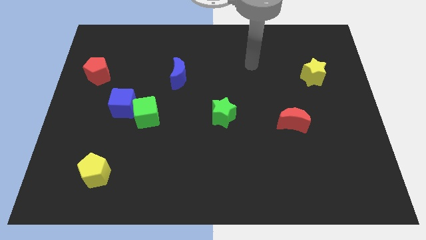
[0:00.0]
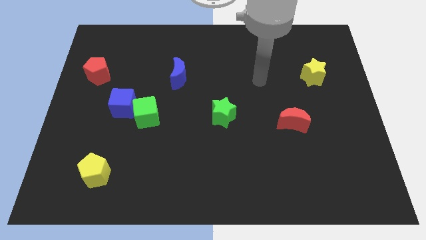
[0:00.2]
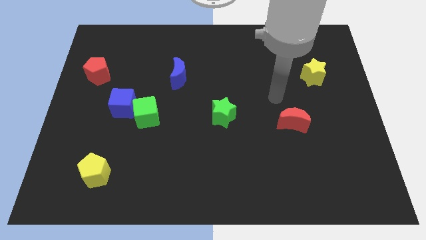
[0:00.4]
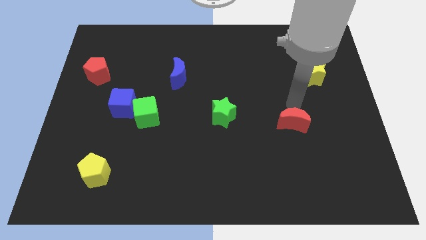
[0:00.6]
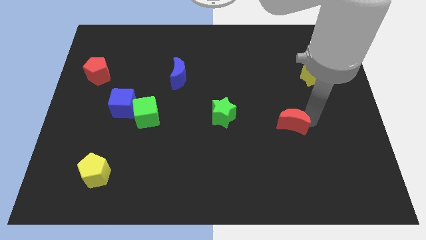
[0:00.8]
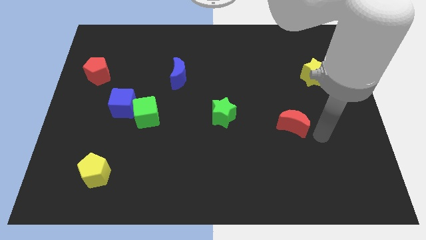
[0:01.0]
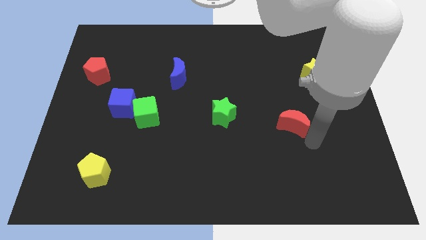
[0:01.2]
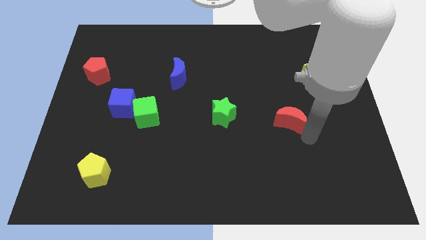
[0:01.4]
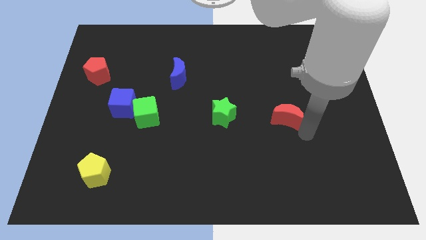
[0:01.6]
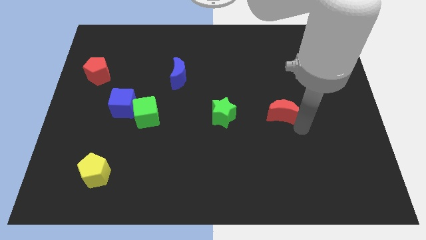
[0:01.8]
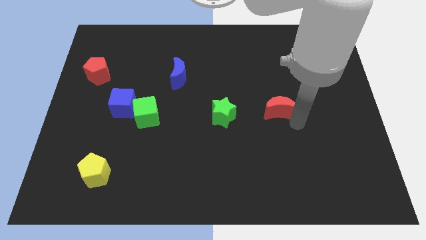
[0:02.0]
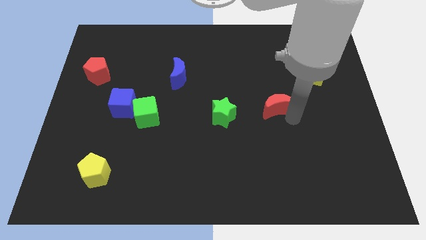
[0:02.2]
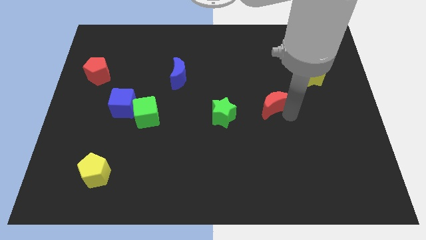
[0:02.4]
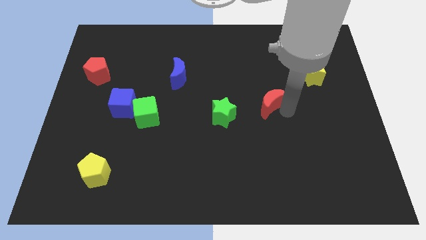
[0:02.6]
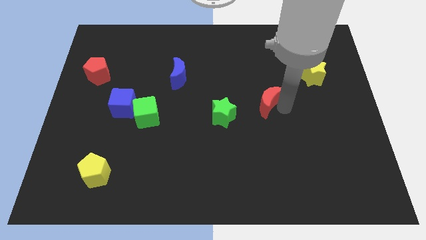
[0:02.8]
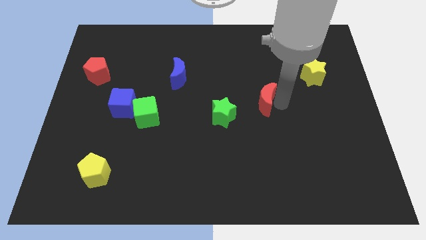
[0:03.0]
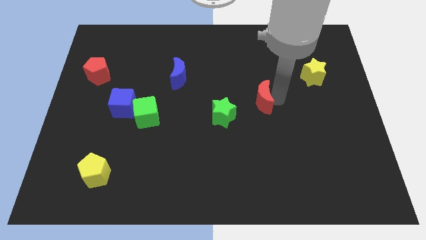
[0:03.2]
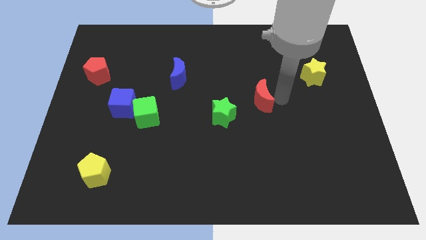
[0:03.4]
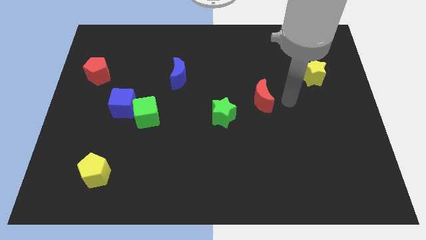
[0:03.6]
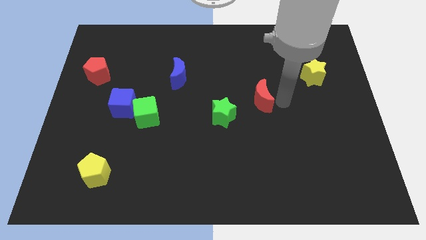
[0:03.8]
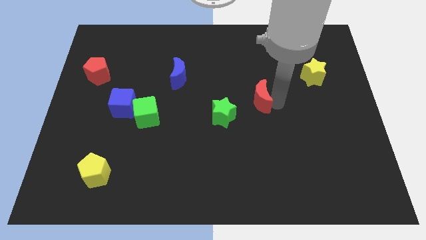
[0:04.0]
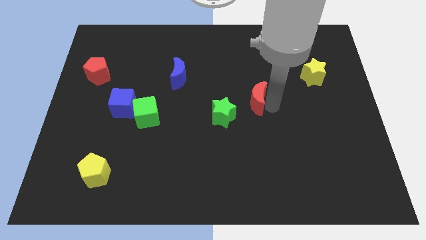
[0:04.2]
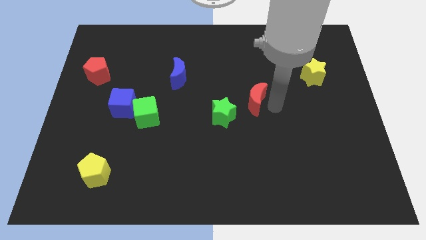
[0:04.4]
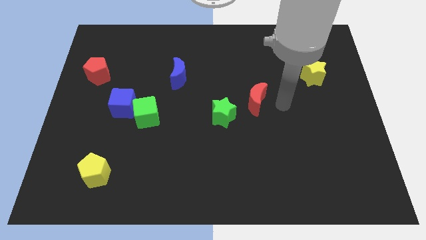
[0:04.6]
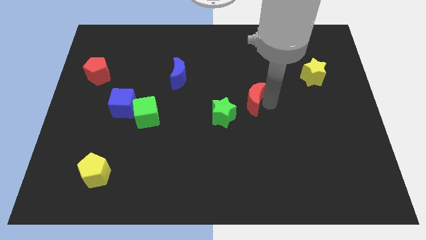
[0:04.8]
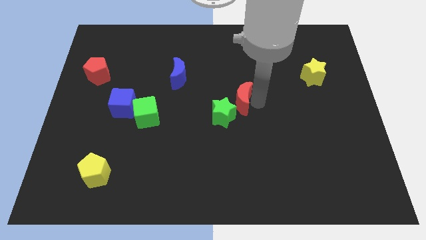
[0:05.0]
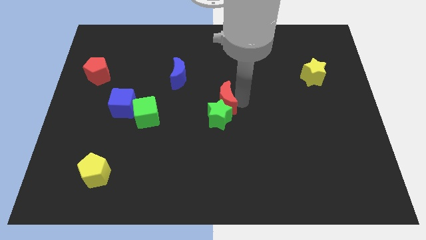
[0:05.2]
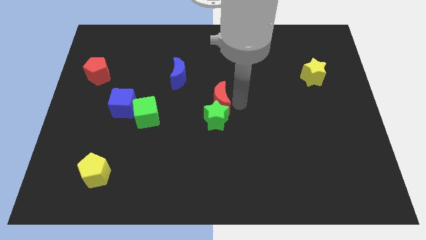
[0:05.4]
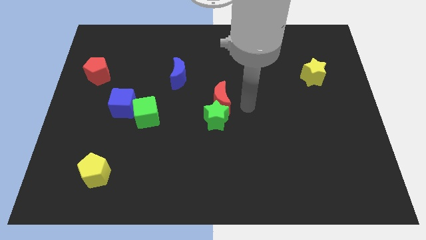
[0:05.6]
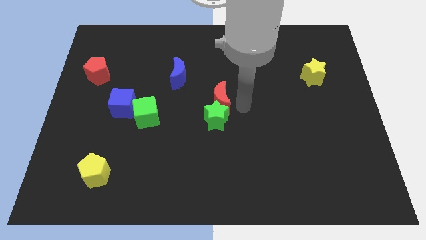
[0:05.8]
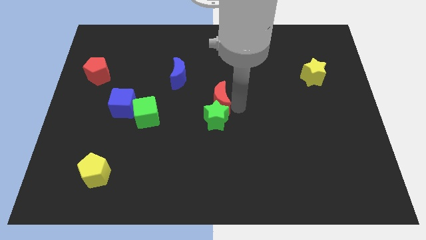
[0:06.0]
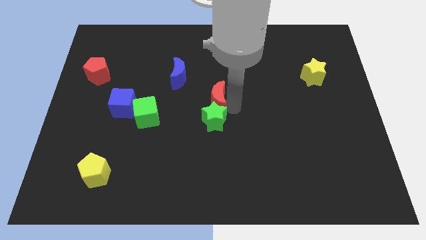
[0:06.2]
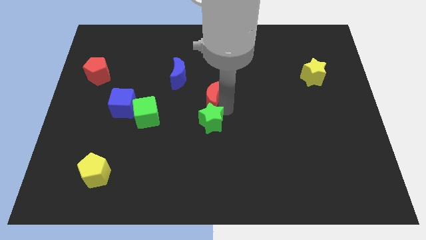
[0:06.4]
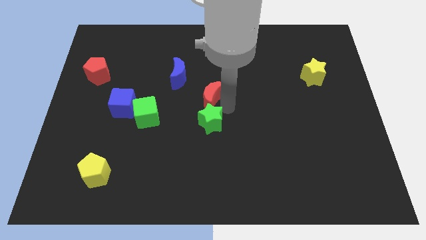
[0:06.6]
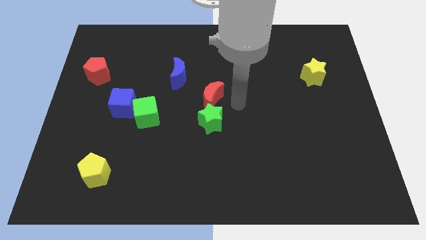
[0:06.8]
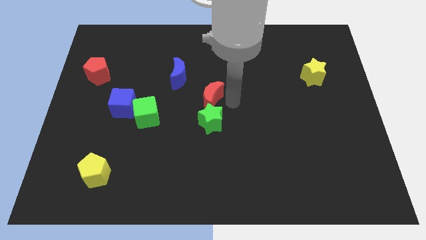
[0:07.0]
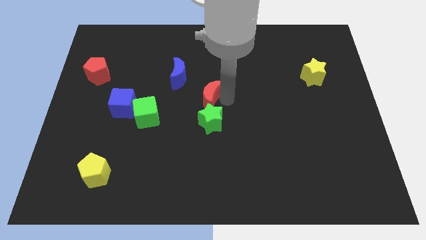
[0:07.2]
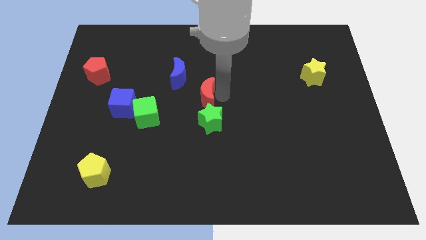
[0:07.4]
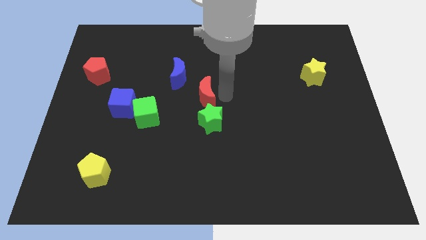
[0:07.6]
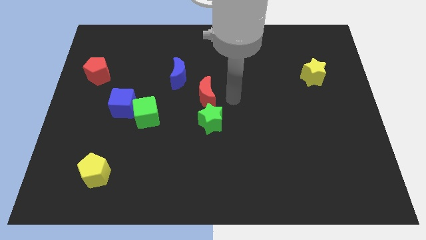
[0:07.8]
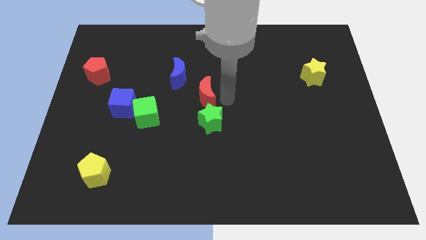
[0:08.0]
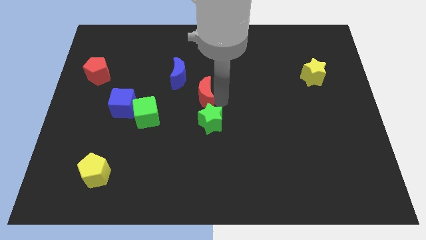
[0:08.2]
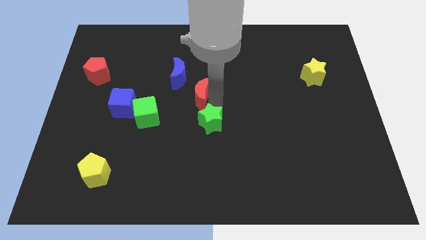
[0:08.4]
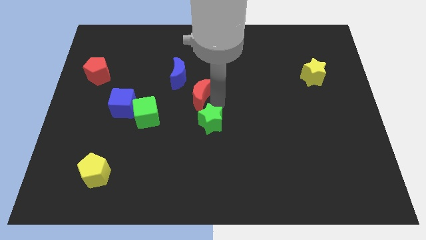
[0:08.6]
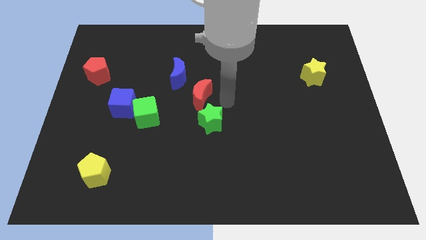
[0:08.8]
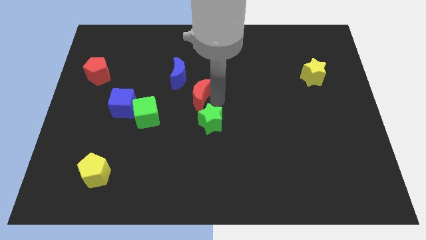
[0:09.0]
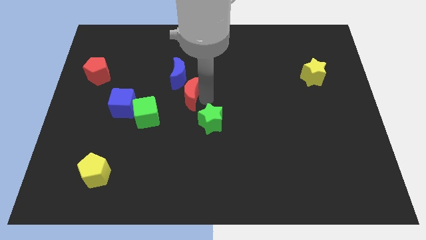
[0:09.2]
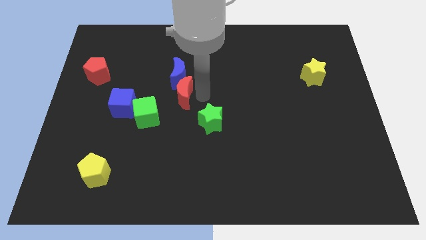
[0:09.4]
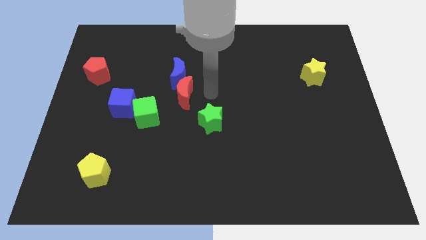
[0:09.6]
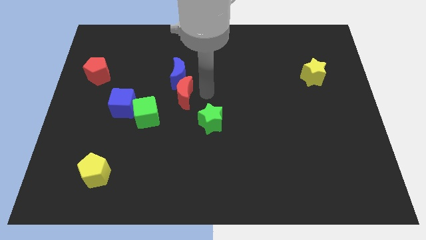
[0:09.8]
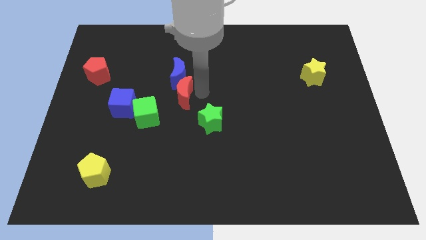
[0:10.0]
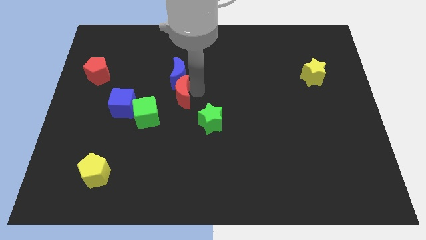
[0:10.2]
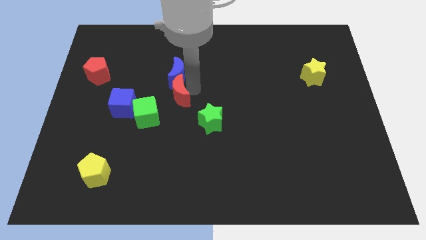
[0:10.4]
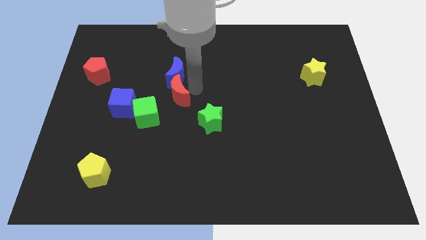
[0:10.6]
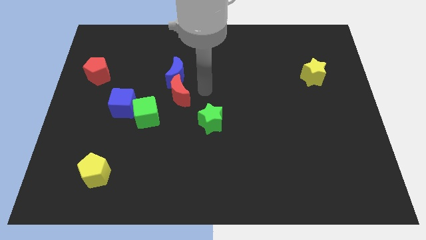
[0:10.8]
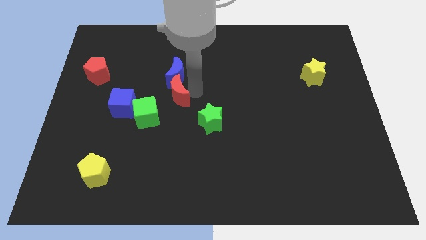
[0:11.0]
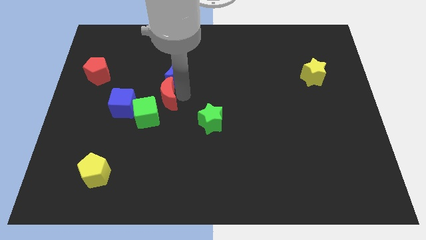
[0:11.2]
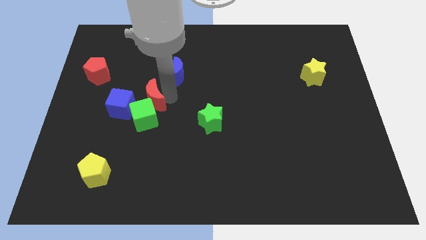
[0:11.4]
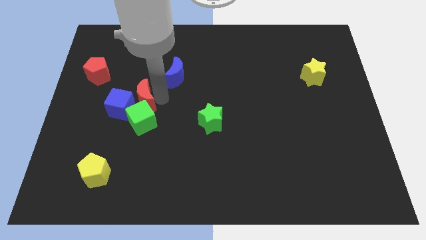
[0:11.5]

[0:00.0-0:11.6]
push the red moon close to the blue cube

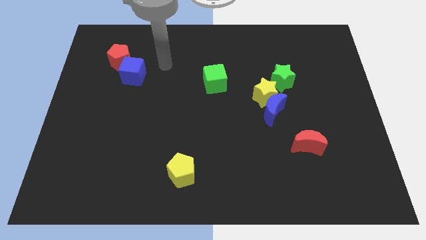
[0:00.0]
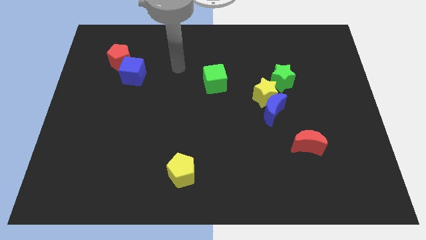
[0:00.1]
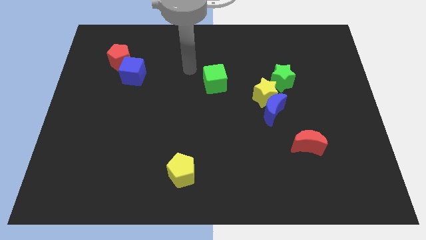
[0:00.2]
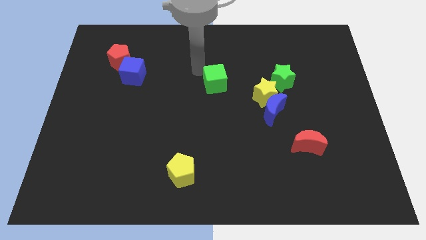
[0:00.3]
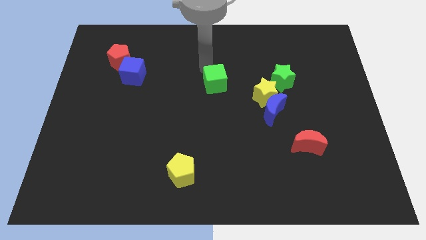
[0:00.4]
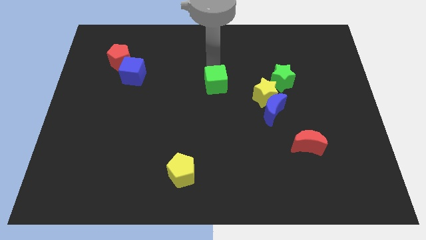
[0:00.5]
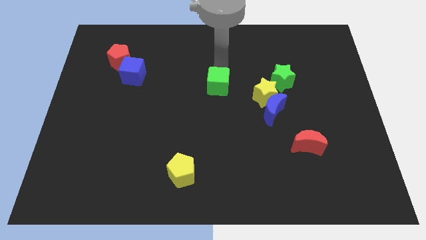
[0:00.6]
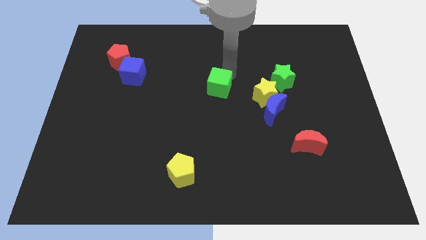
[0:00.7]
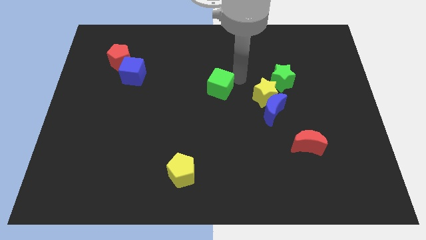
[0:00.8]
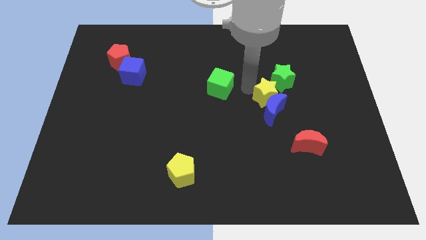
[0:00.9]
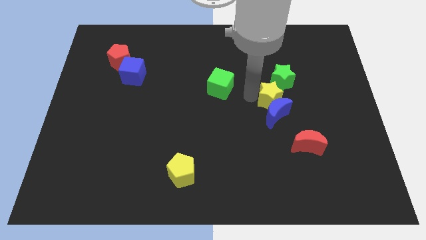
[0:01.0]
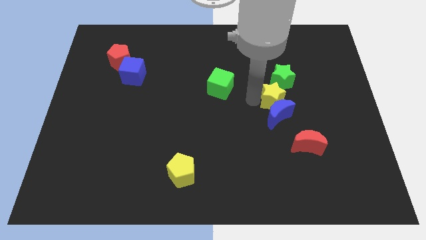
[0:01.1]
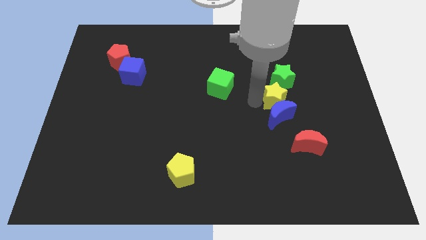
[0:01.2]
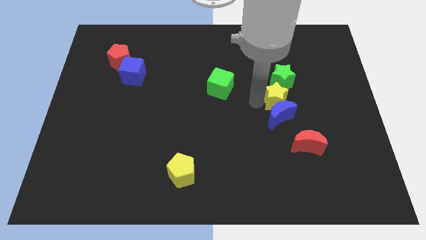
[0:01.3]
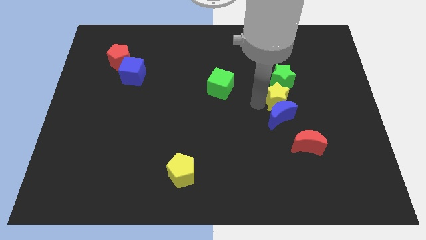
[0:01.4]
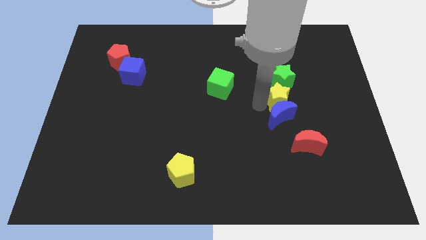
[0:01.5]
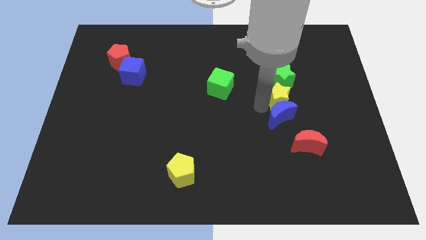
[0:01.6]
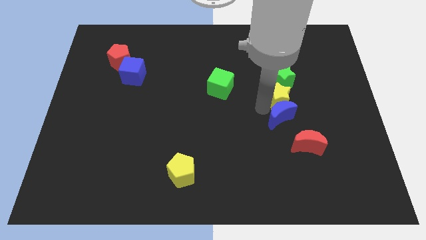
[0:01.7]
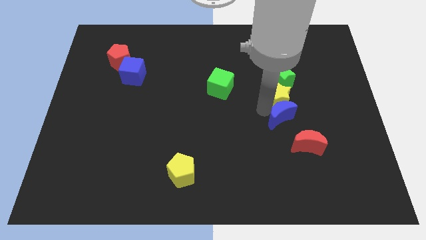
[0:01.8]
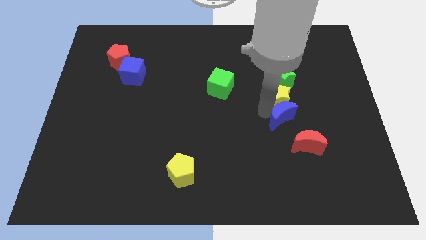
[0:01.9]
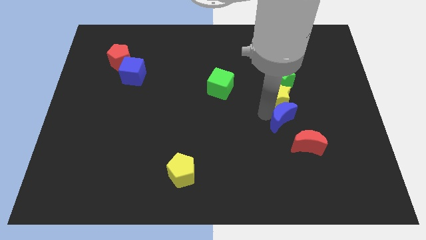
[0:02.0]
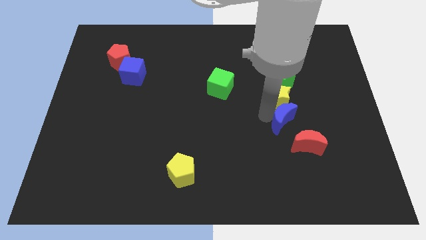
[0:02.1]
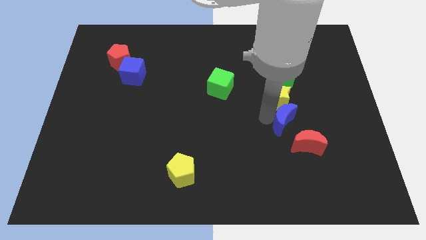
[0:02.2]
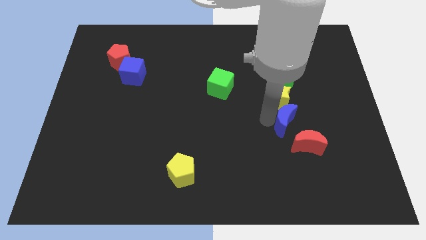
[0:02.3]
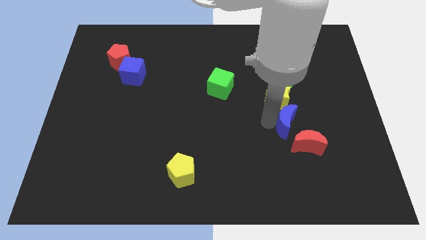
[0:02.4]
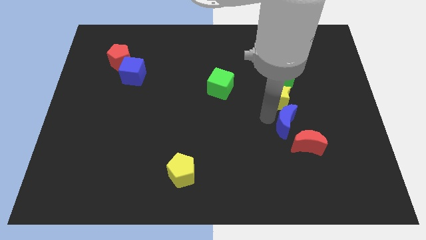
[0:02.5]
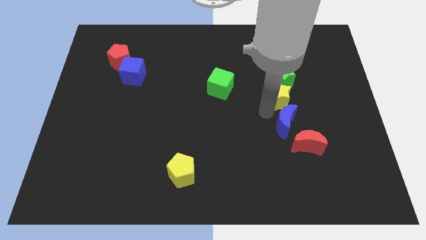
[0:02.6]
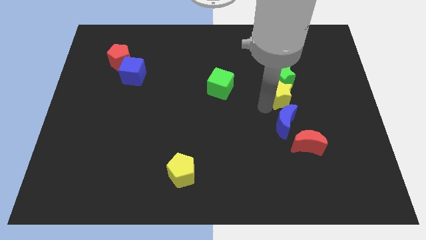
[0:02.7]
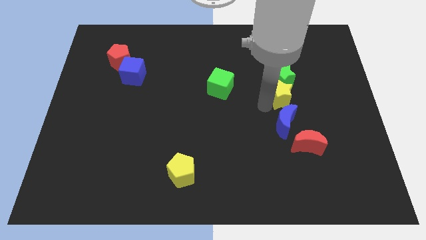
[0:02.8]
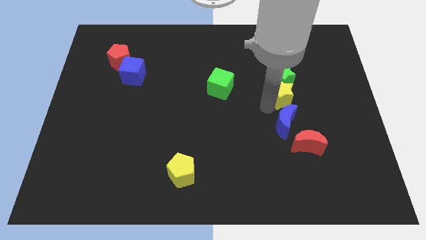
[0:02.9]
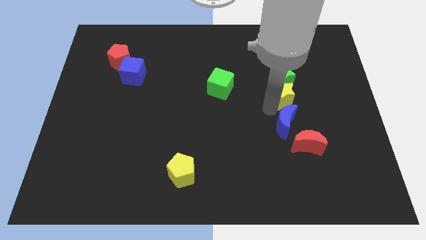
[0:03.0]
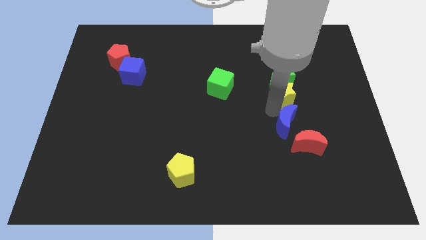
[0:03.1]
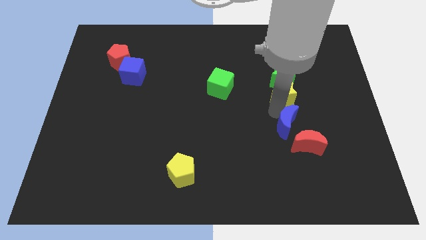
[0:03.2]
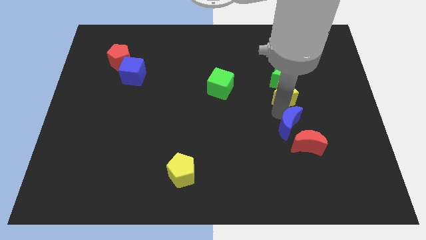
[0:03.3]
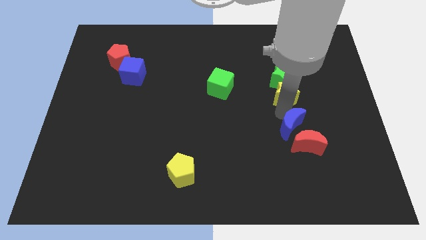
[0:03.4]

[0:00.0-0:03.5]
slide the blue moon towards the red moon
